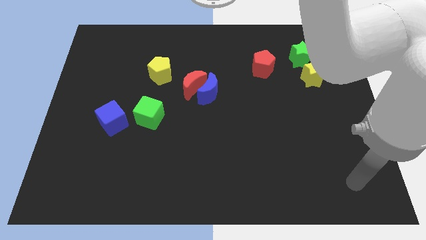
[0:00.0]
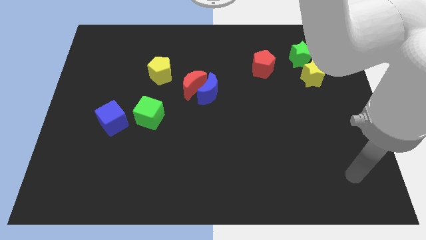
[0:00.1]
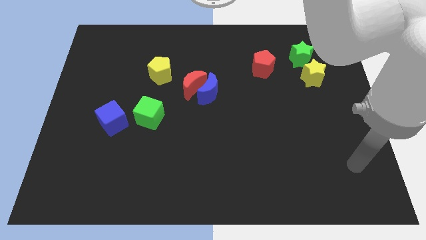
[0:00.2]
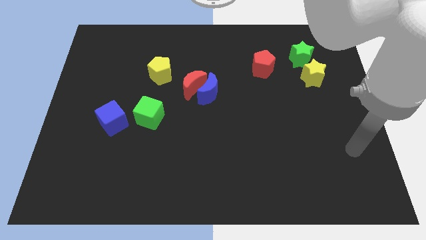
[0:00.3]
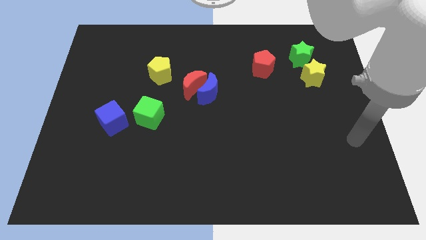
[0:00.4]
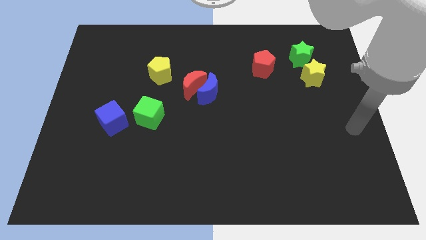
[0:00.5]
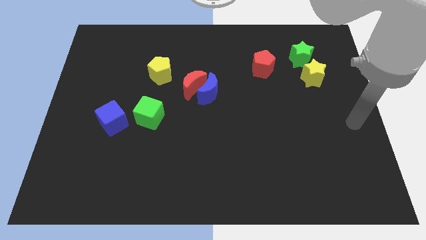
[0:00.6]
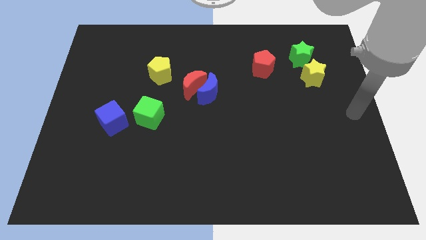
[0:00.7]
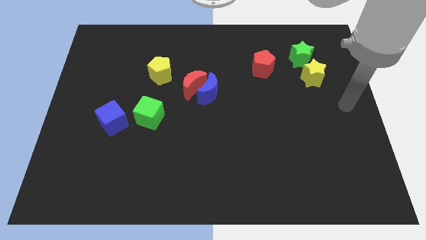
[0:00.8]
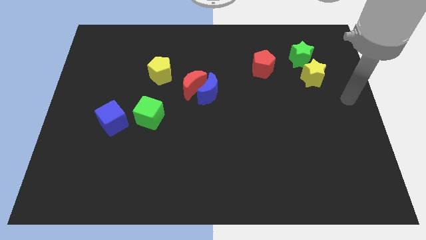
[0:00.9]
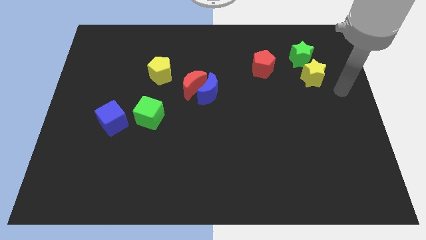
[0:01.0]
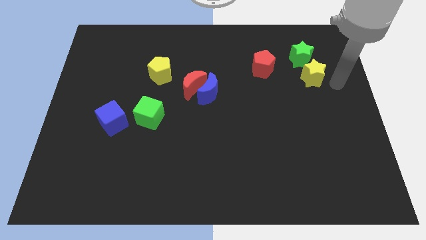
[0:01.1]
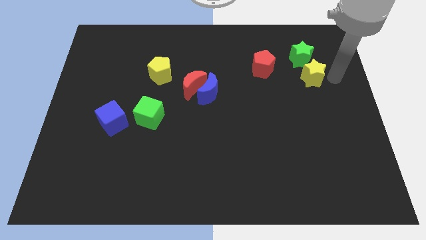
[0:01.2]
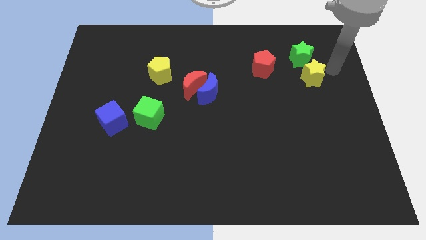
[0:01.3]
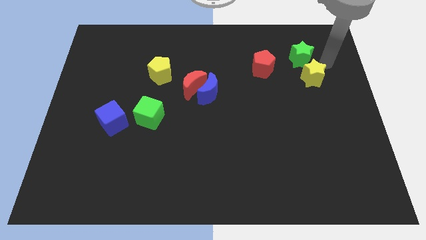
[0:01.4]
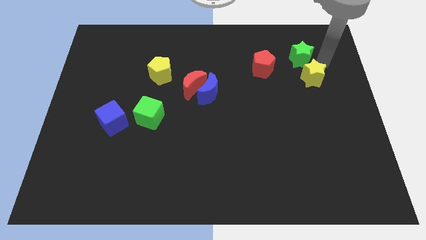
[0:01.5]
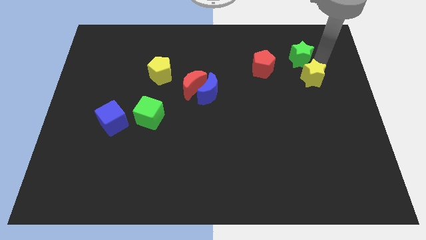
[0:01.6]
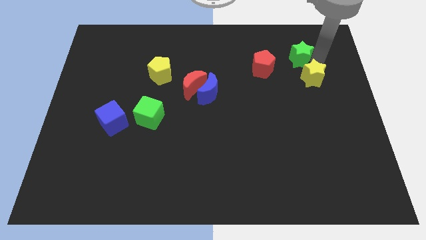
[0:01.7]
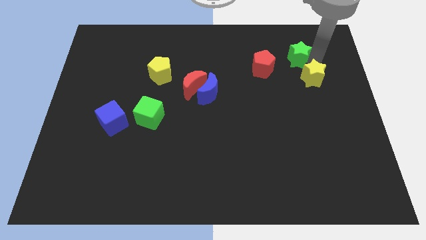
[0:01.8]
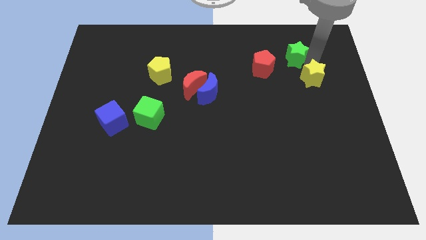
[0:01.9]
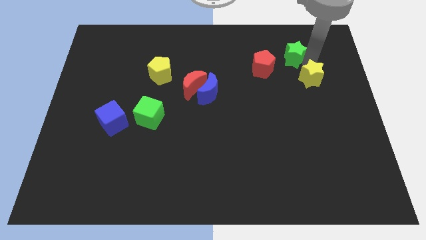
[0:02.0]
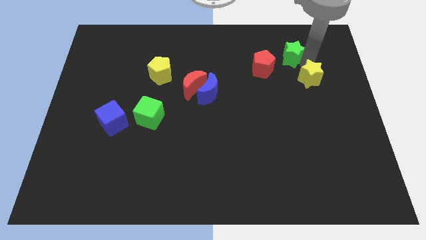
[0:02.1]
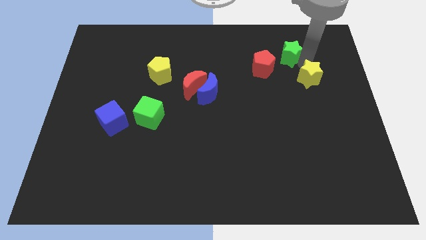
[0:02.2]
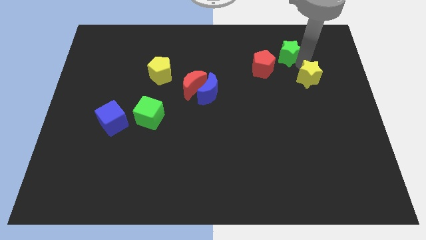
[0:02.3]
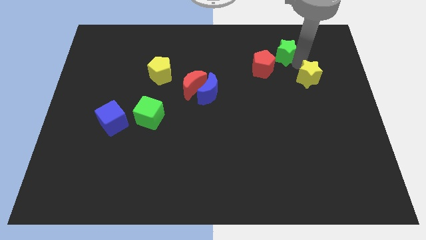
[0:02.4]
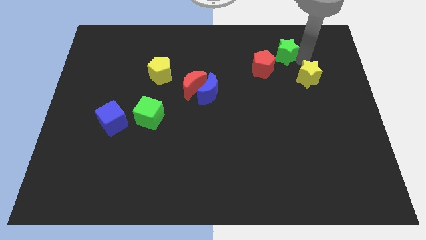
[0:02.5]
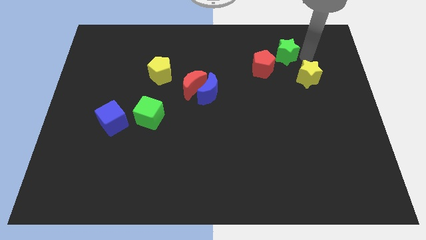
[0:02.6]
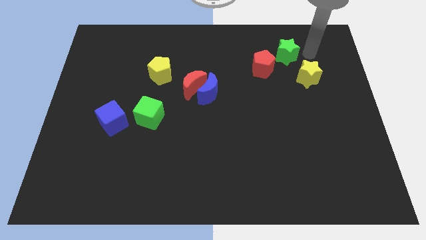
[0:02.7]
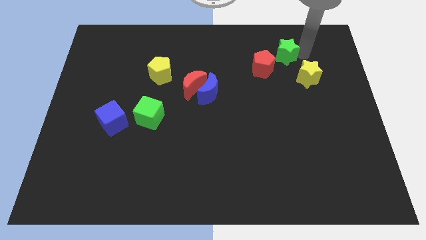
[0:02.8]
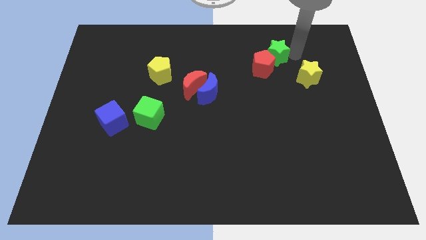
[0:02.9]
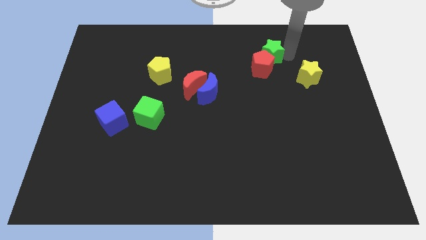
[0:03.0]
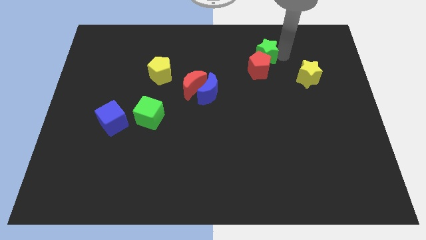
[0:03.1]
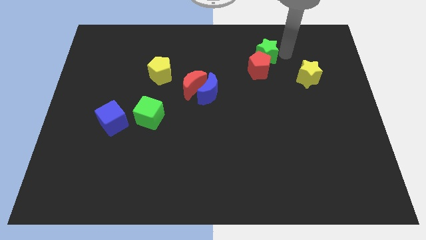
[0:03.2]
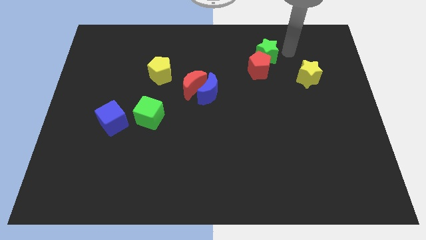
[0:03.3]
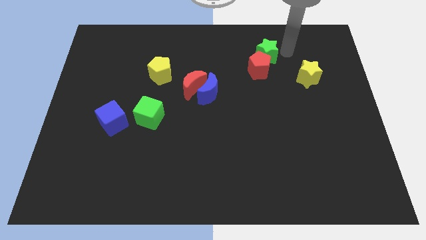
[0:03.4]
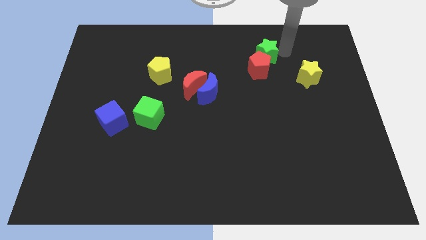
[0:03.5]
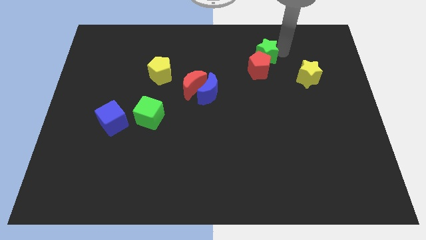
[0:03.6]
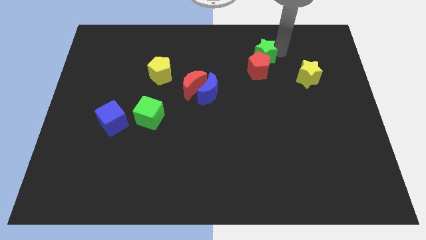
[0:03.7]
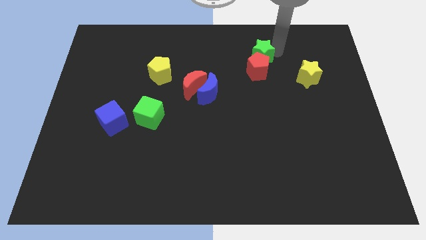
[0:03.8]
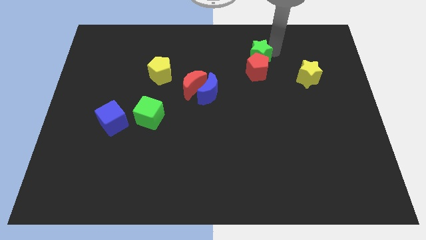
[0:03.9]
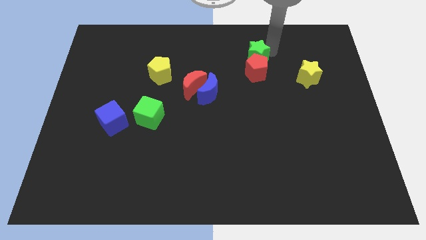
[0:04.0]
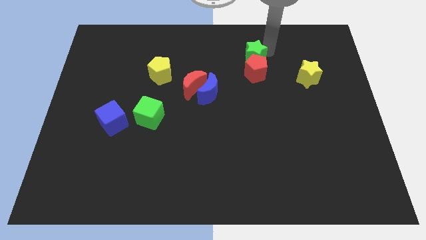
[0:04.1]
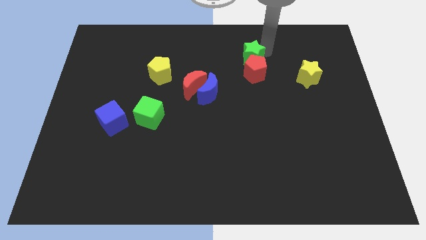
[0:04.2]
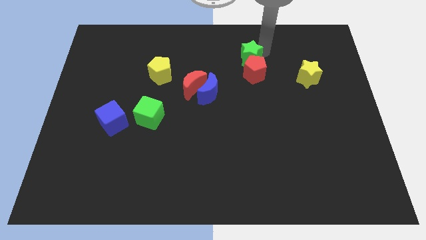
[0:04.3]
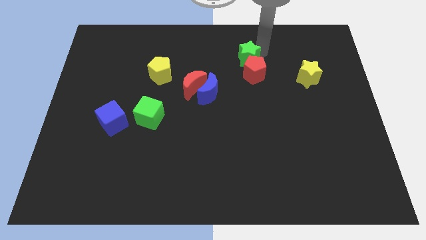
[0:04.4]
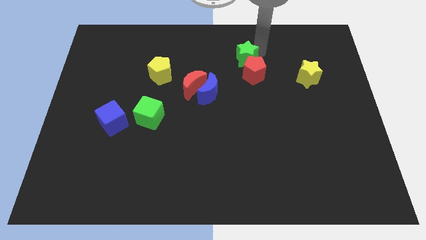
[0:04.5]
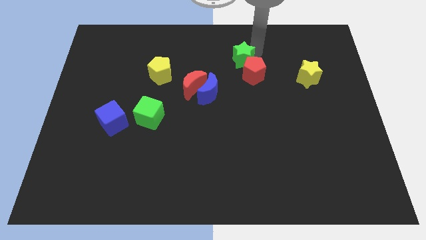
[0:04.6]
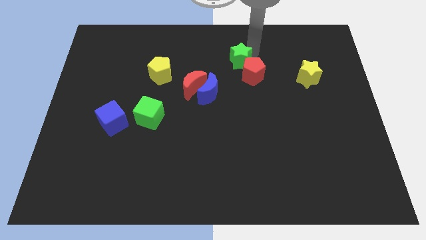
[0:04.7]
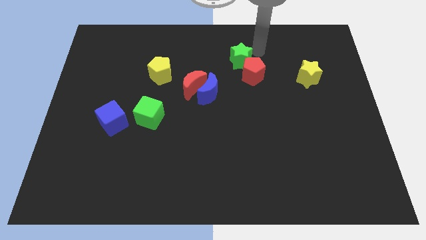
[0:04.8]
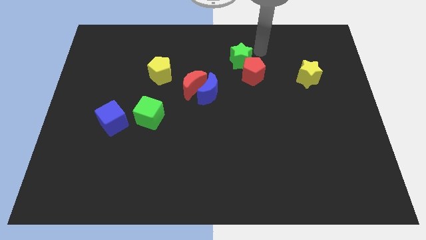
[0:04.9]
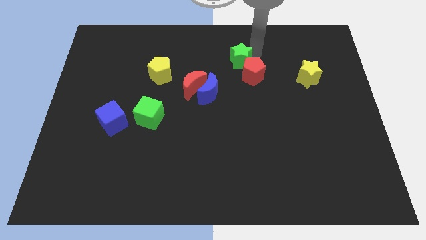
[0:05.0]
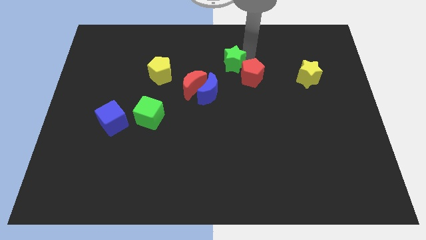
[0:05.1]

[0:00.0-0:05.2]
move the green star left of the red pentagon

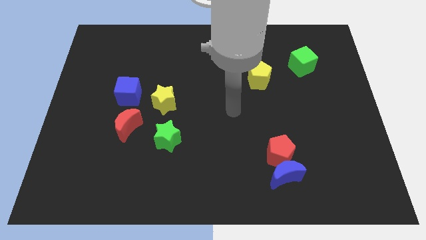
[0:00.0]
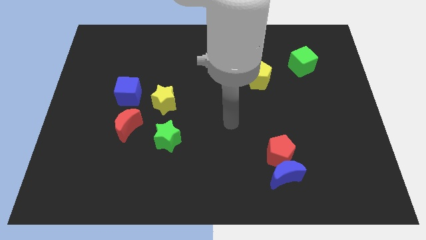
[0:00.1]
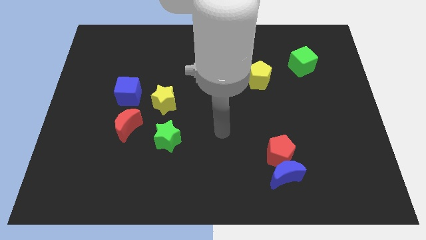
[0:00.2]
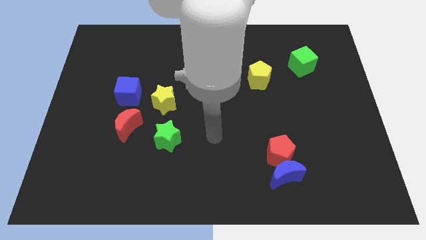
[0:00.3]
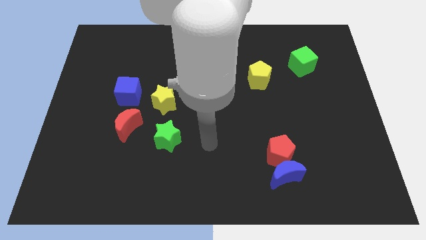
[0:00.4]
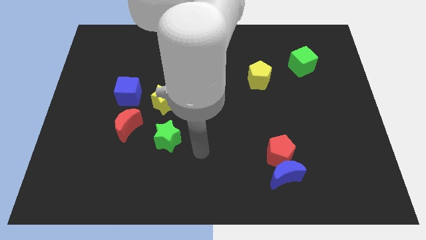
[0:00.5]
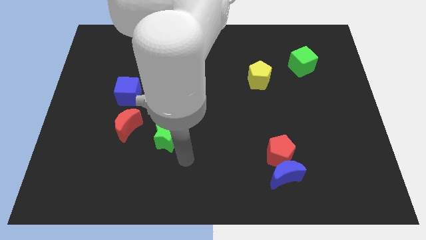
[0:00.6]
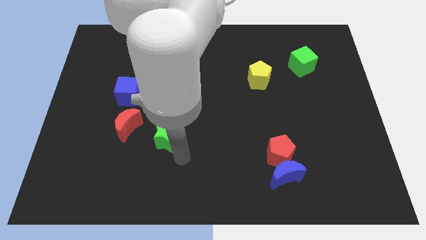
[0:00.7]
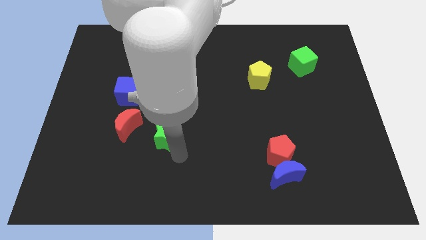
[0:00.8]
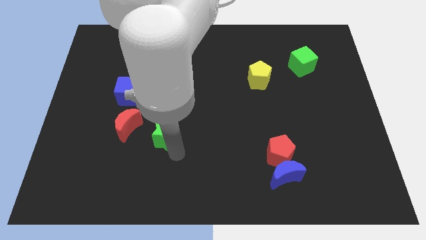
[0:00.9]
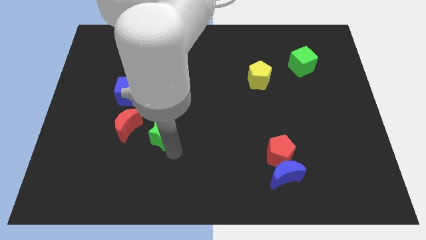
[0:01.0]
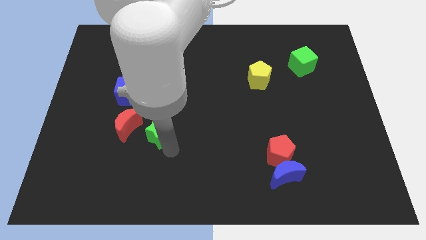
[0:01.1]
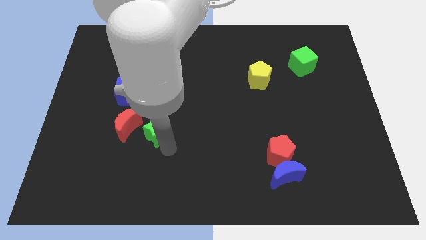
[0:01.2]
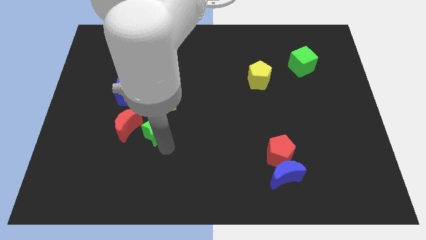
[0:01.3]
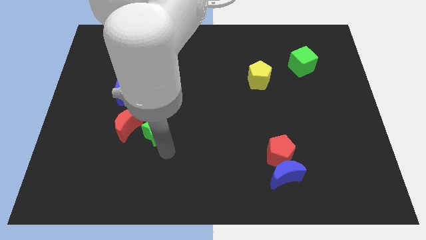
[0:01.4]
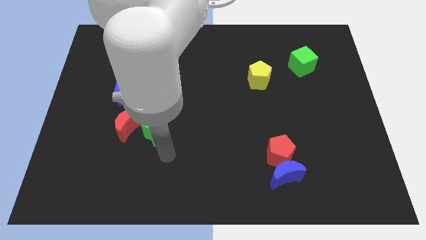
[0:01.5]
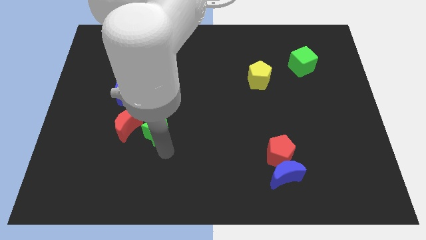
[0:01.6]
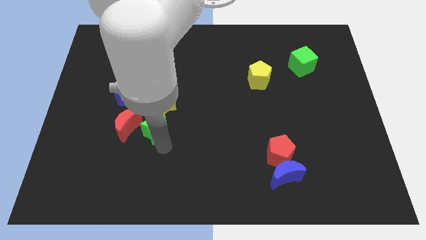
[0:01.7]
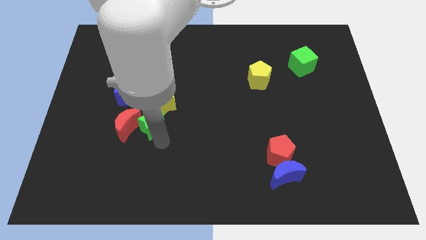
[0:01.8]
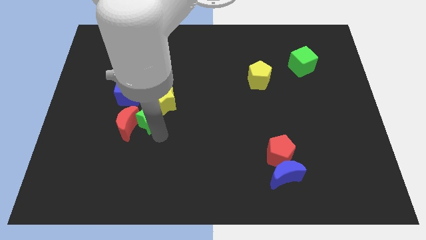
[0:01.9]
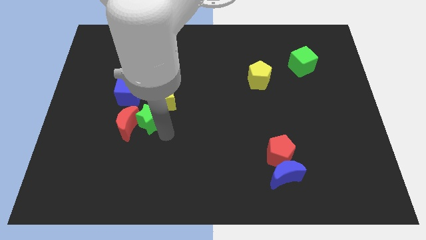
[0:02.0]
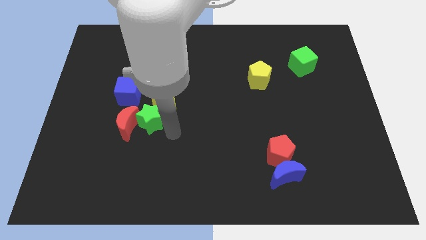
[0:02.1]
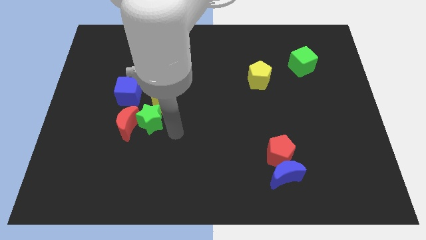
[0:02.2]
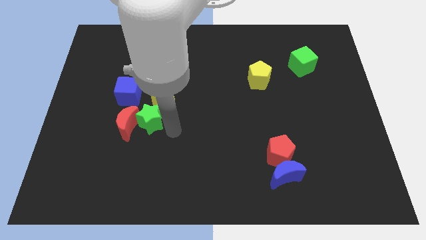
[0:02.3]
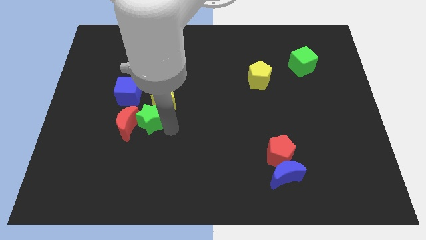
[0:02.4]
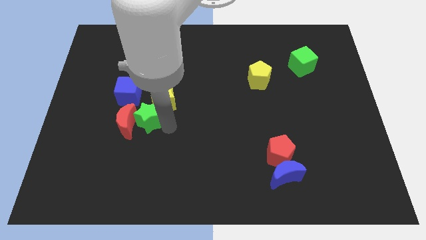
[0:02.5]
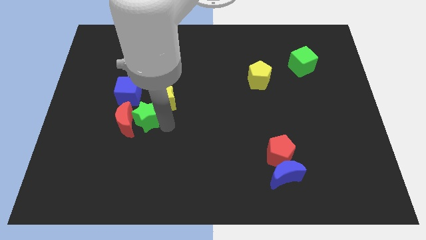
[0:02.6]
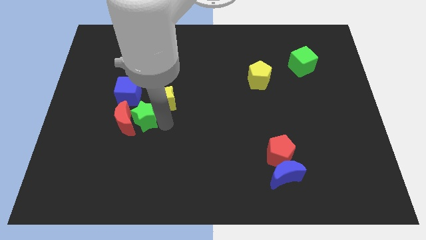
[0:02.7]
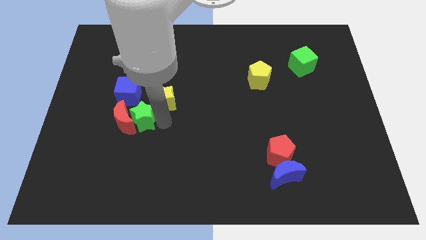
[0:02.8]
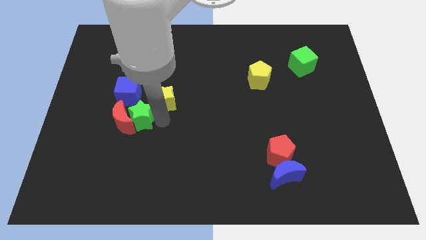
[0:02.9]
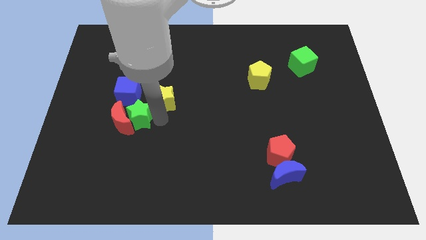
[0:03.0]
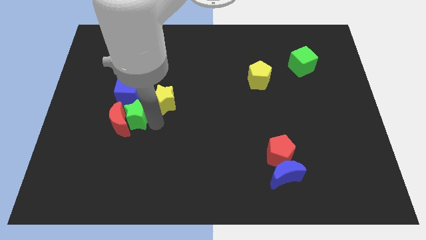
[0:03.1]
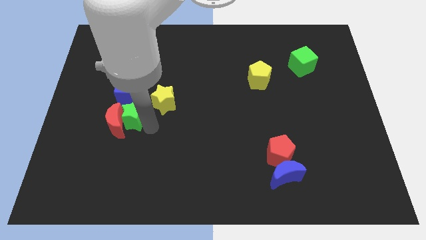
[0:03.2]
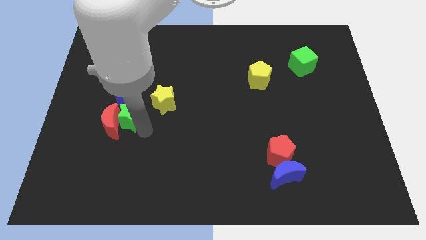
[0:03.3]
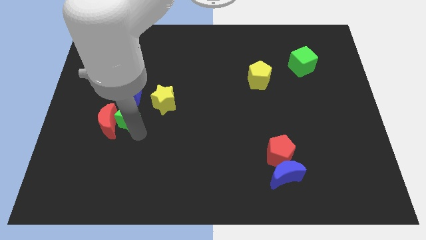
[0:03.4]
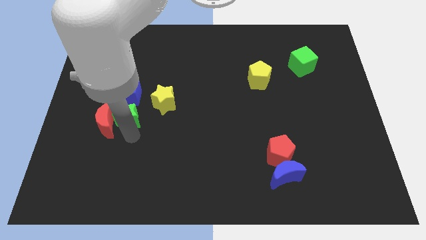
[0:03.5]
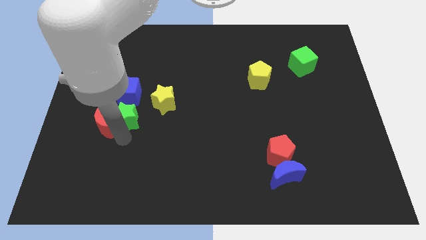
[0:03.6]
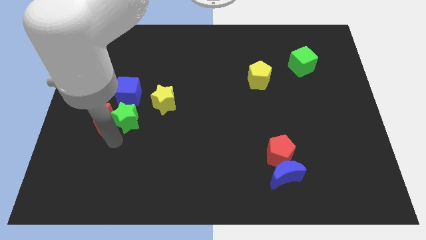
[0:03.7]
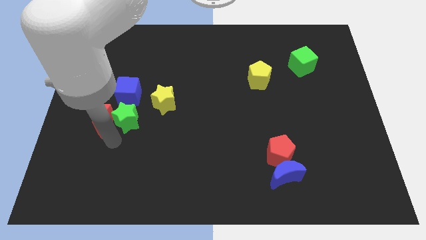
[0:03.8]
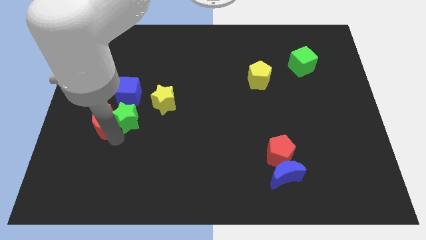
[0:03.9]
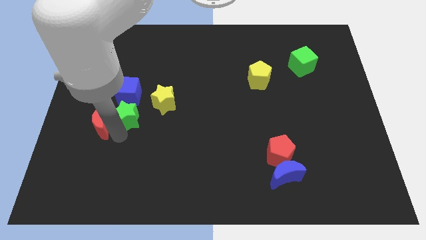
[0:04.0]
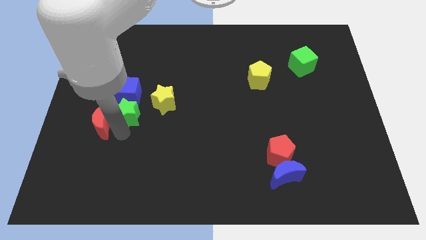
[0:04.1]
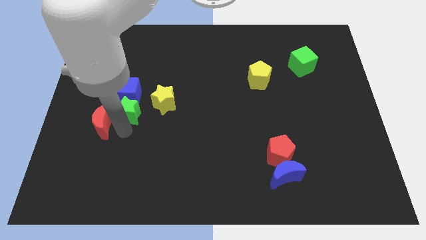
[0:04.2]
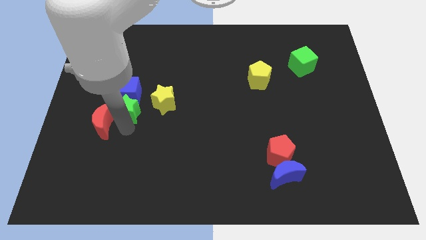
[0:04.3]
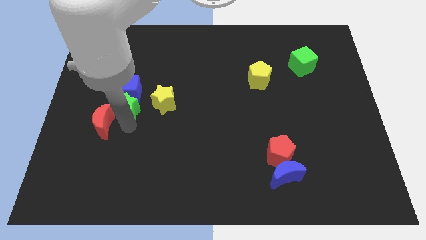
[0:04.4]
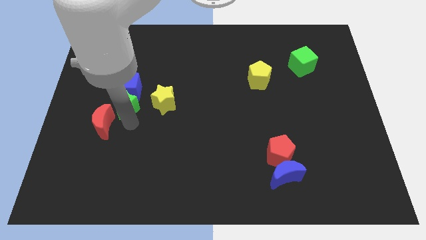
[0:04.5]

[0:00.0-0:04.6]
put the green star to the top of the red moon
